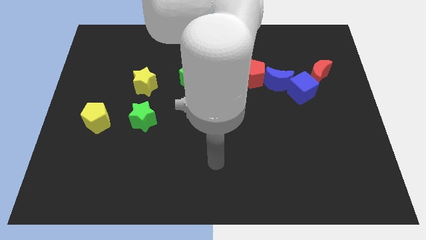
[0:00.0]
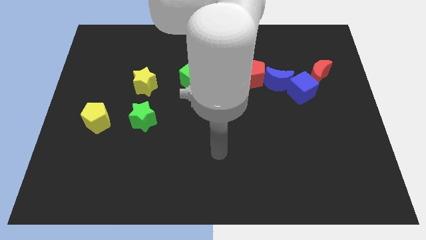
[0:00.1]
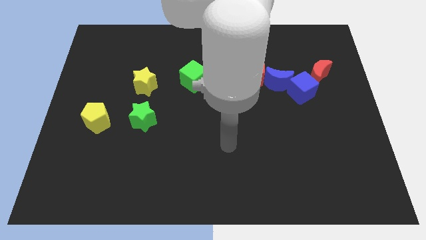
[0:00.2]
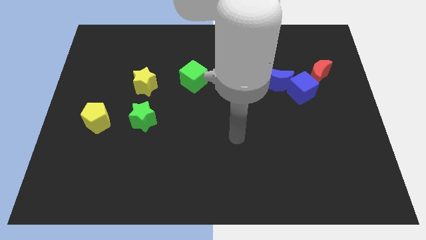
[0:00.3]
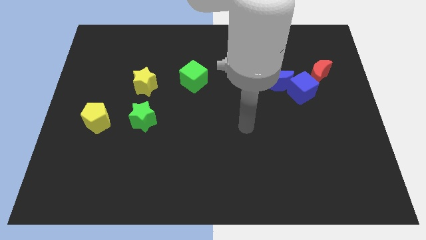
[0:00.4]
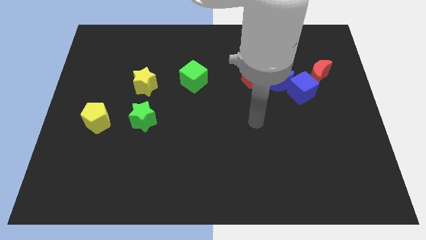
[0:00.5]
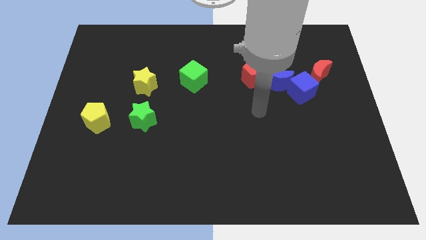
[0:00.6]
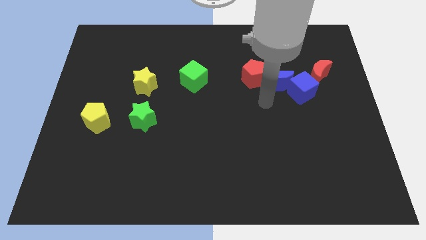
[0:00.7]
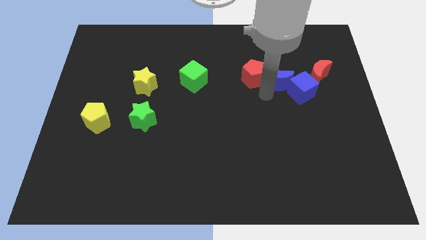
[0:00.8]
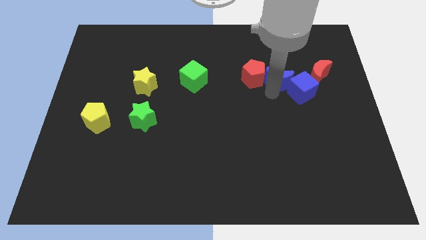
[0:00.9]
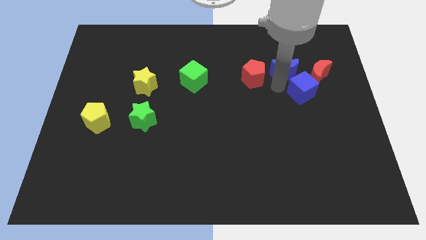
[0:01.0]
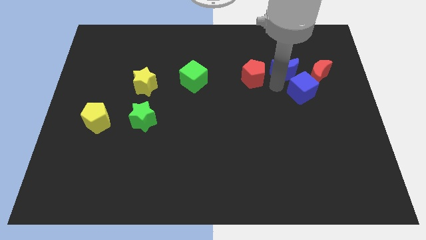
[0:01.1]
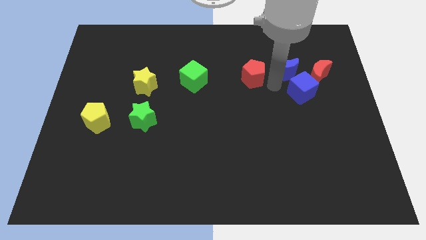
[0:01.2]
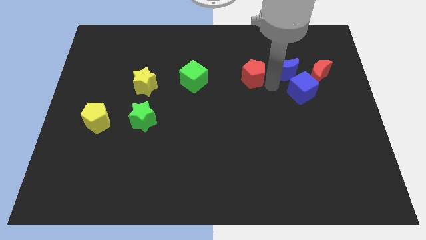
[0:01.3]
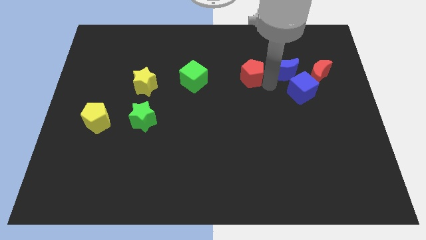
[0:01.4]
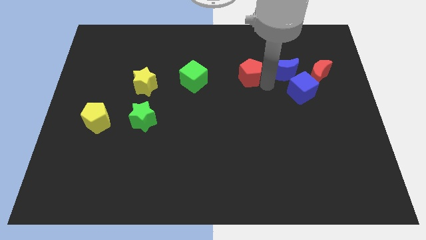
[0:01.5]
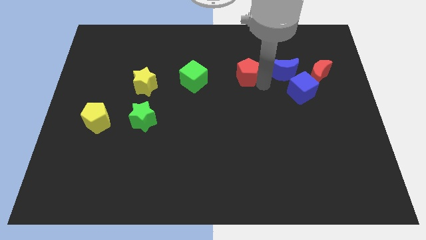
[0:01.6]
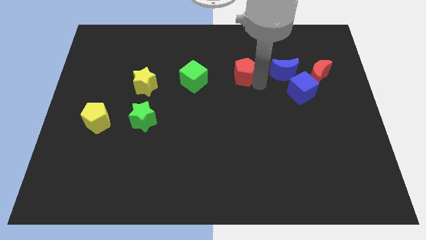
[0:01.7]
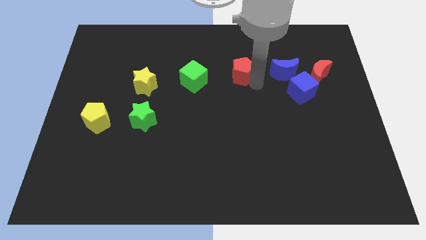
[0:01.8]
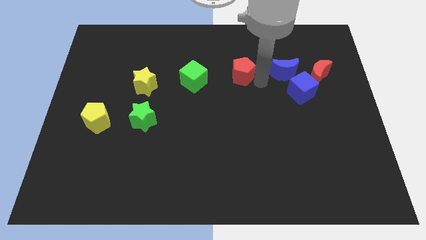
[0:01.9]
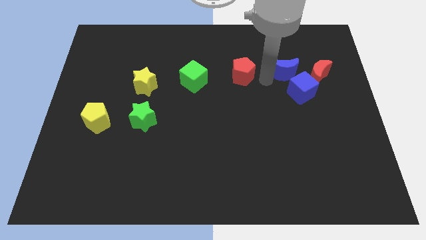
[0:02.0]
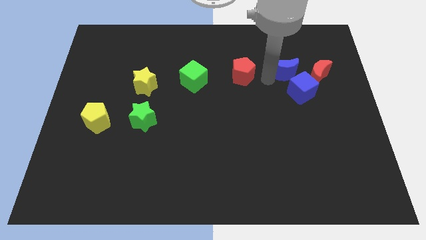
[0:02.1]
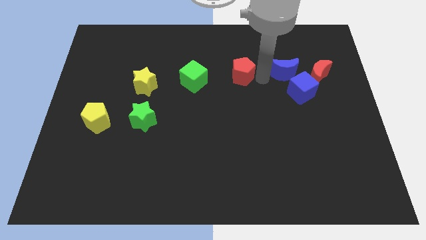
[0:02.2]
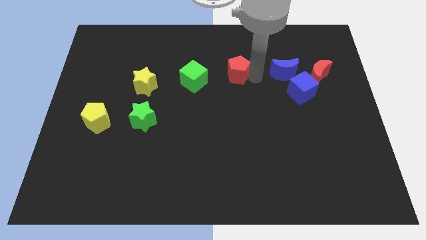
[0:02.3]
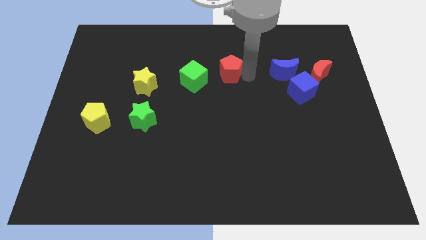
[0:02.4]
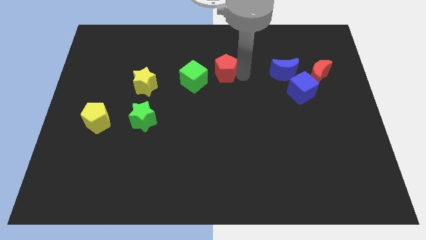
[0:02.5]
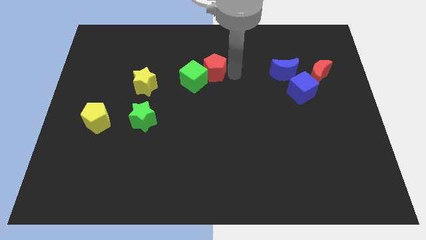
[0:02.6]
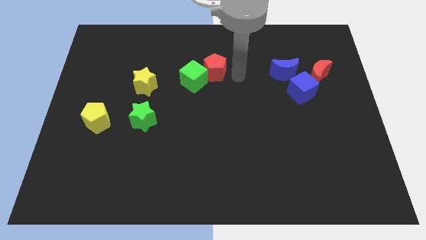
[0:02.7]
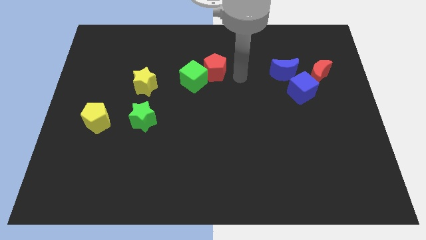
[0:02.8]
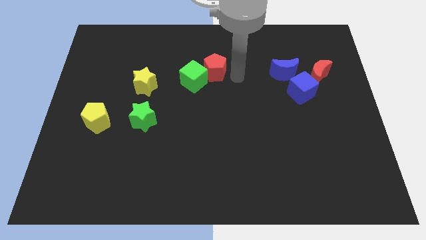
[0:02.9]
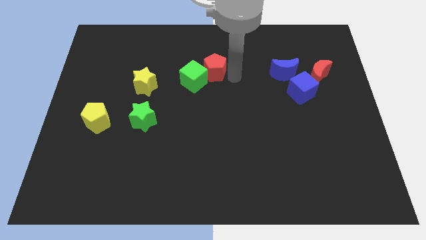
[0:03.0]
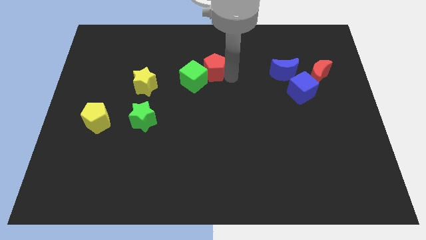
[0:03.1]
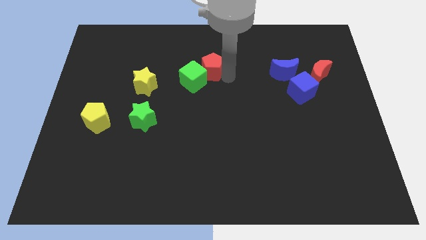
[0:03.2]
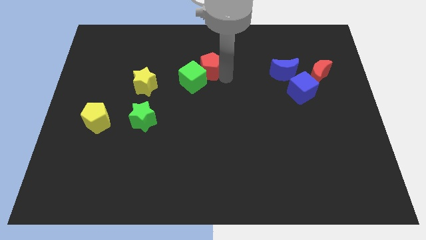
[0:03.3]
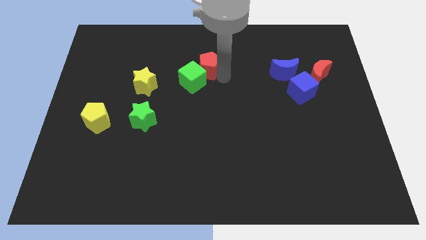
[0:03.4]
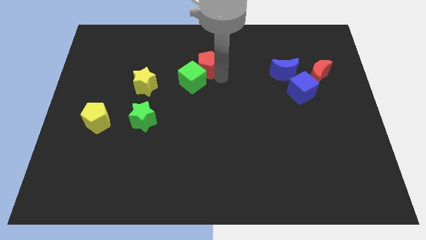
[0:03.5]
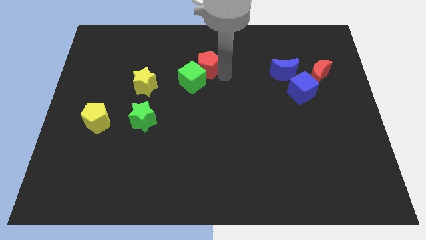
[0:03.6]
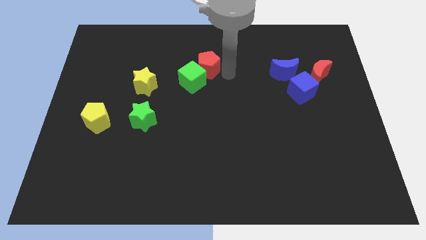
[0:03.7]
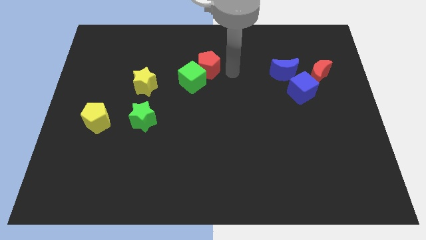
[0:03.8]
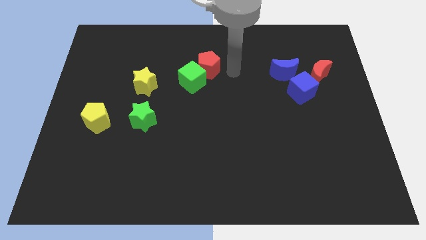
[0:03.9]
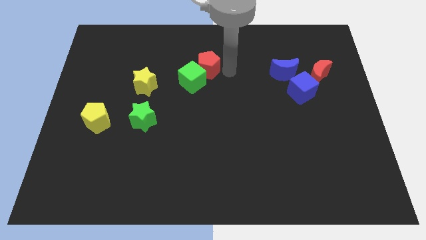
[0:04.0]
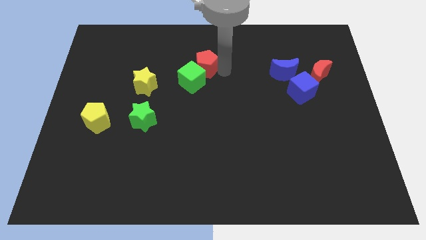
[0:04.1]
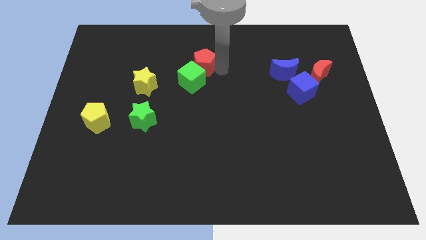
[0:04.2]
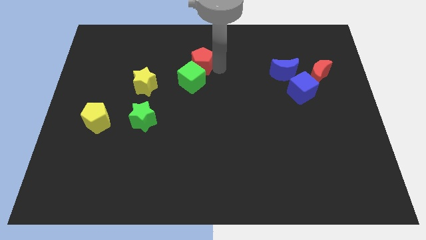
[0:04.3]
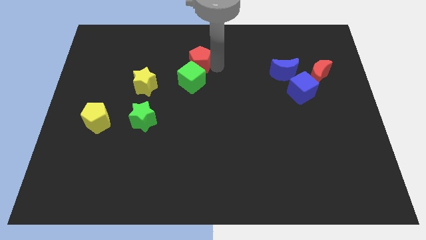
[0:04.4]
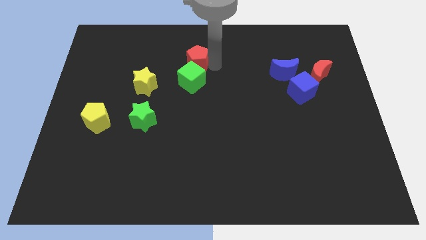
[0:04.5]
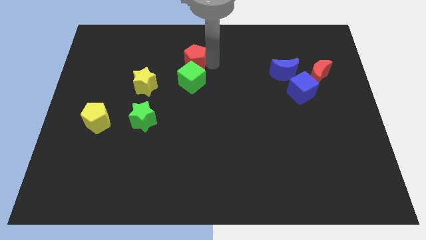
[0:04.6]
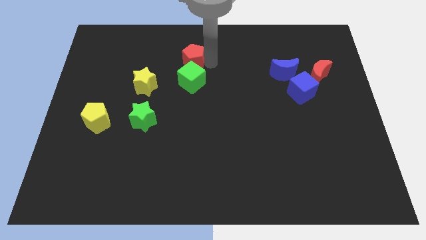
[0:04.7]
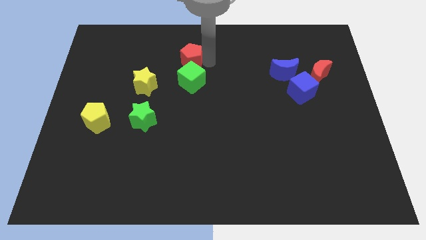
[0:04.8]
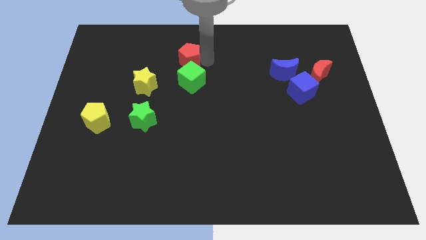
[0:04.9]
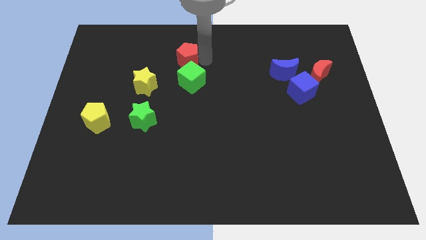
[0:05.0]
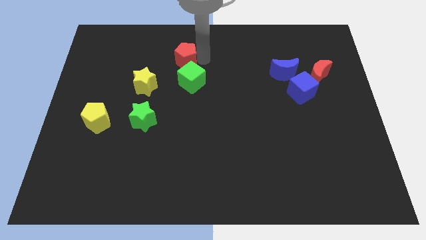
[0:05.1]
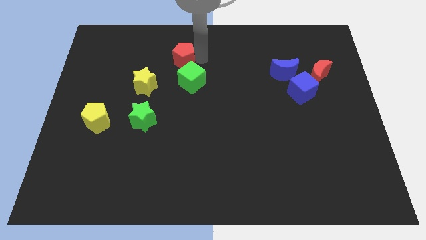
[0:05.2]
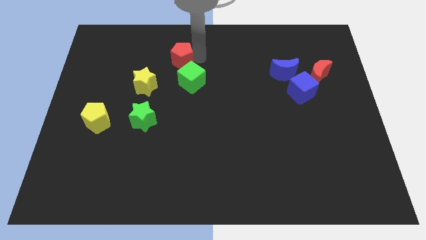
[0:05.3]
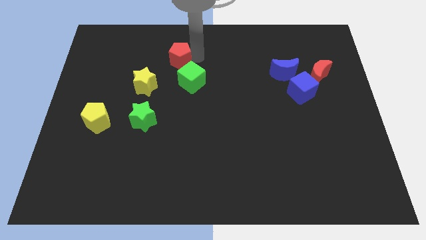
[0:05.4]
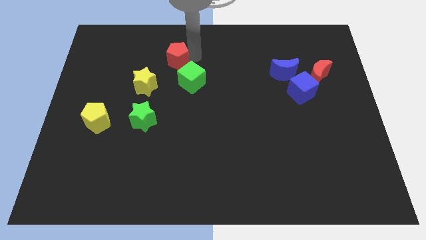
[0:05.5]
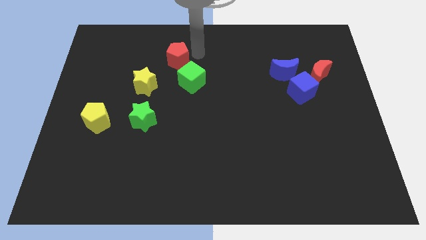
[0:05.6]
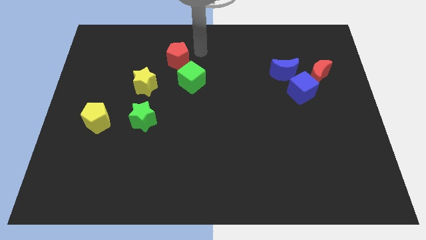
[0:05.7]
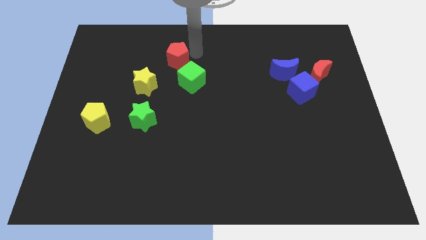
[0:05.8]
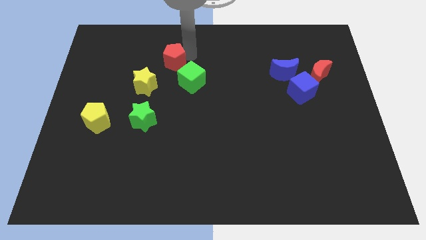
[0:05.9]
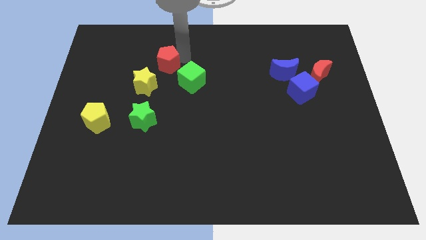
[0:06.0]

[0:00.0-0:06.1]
push the red pentagon to the left

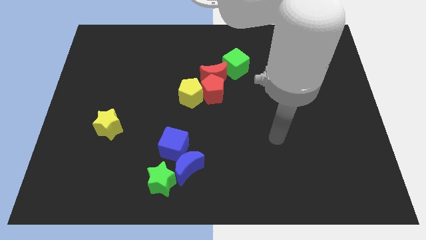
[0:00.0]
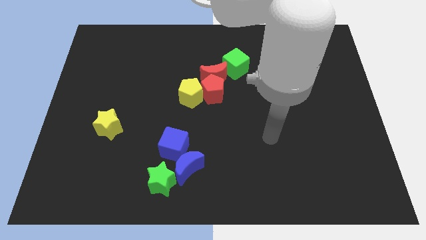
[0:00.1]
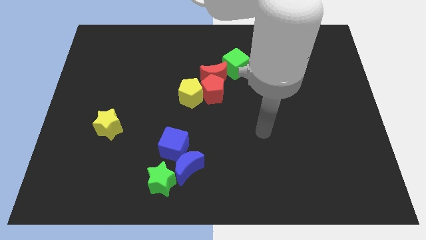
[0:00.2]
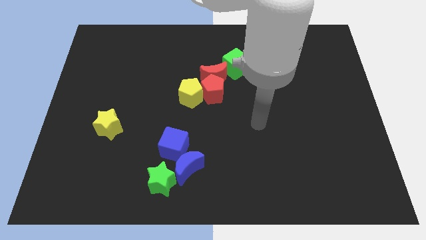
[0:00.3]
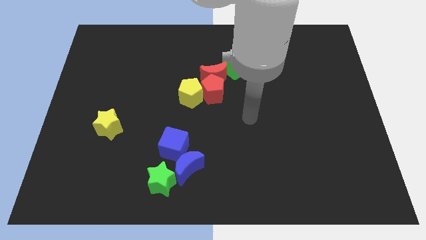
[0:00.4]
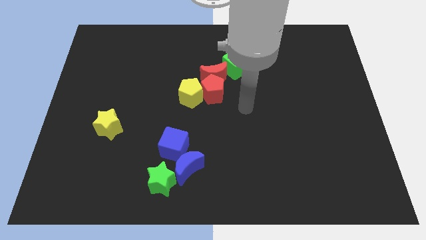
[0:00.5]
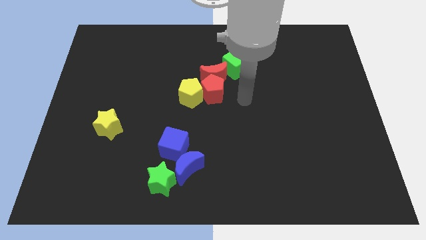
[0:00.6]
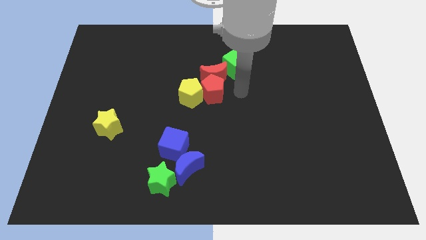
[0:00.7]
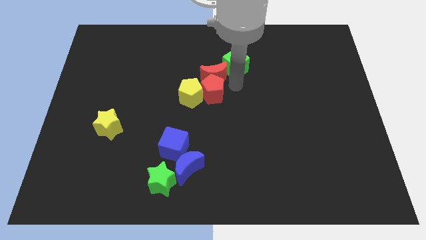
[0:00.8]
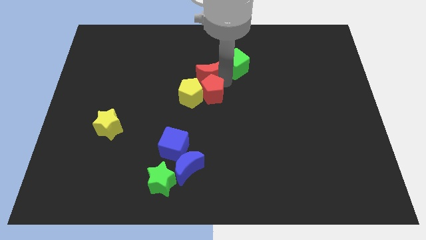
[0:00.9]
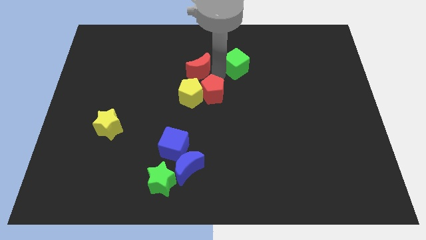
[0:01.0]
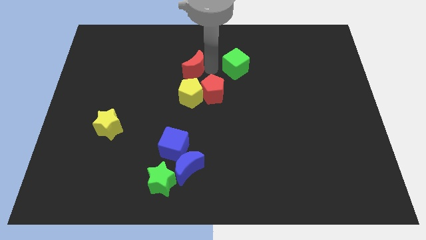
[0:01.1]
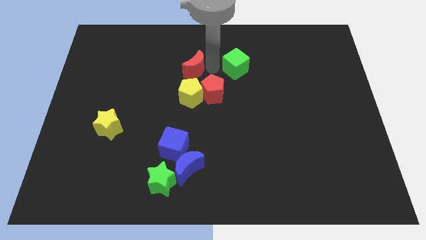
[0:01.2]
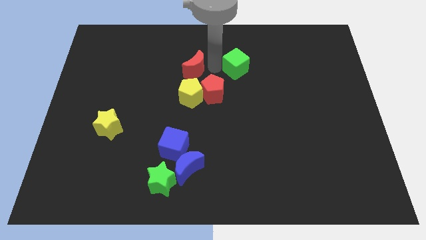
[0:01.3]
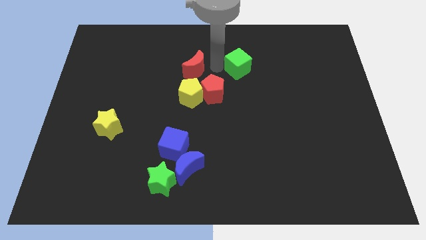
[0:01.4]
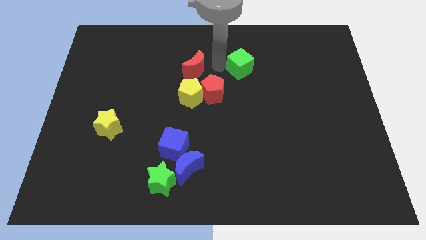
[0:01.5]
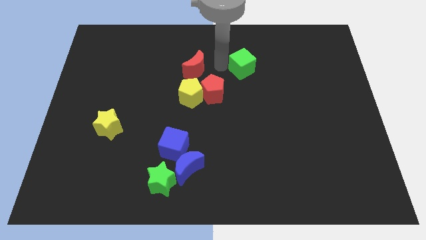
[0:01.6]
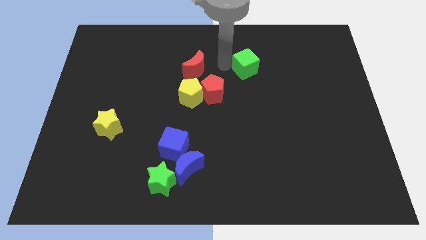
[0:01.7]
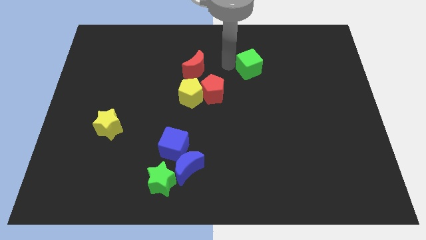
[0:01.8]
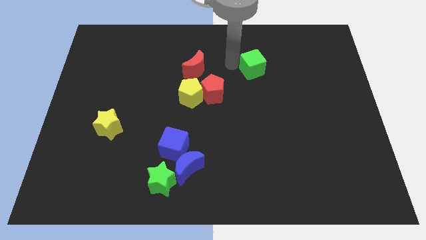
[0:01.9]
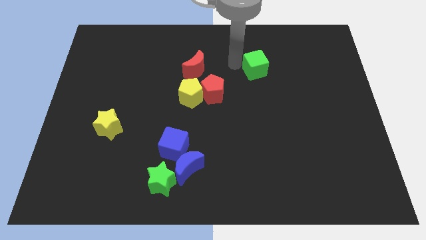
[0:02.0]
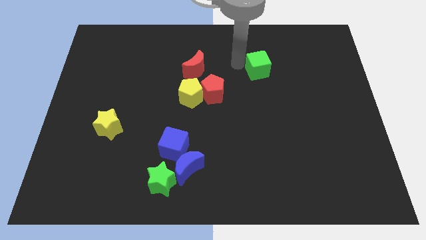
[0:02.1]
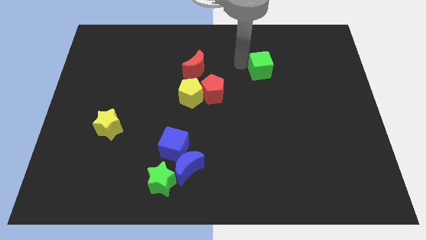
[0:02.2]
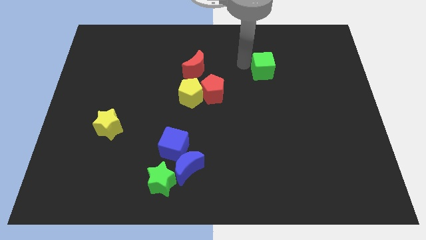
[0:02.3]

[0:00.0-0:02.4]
slide the green cube slightly right
